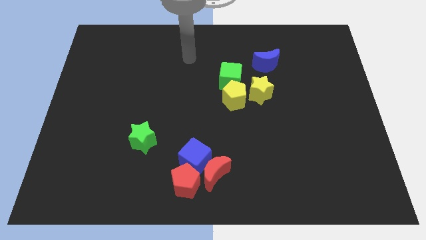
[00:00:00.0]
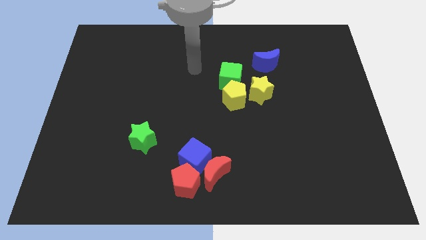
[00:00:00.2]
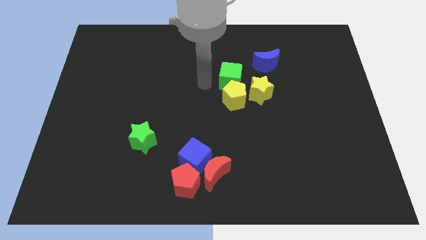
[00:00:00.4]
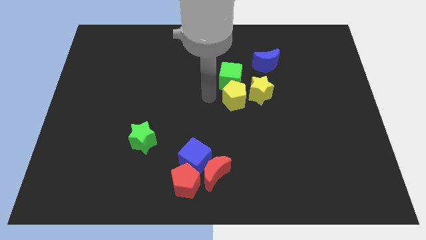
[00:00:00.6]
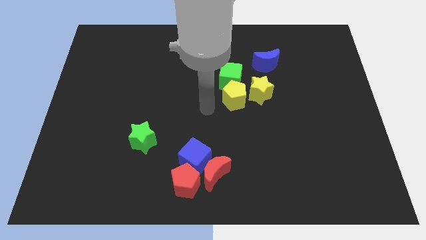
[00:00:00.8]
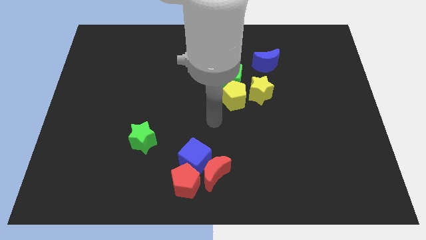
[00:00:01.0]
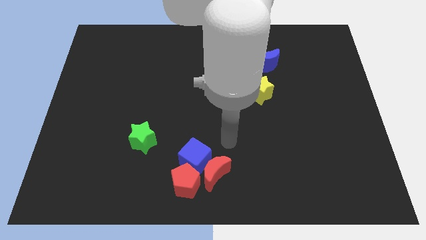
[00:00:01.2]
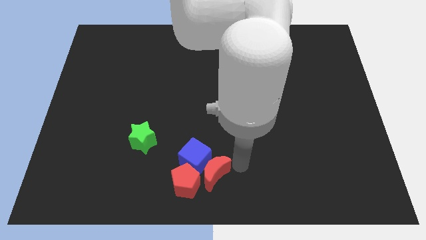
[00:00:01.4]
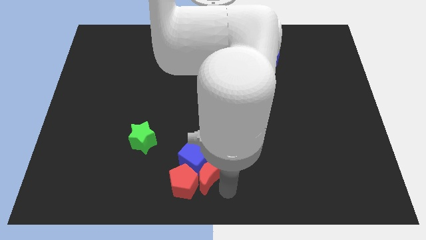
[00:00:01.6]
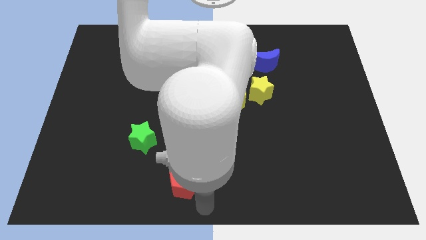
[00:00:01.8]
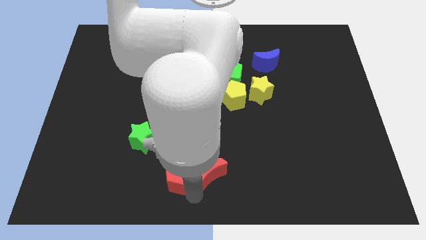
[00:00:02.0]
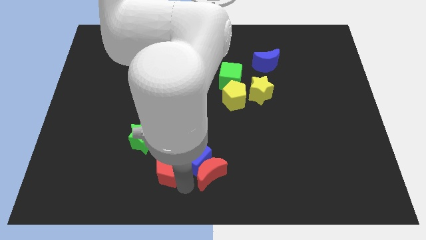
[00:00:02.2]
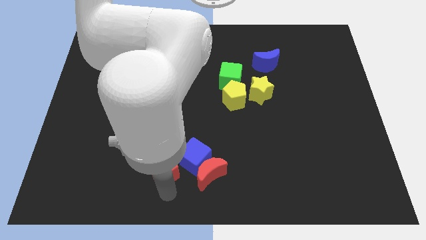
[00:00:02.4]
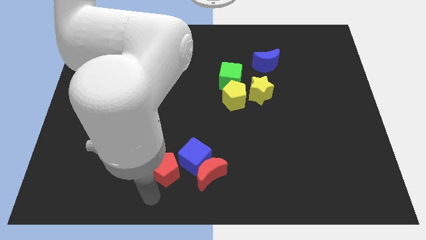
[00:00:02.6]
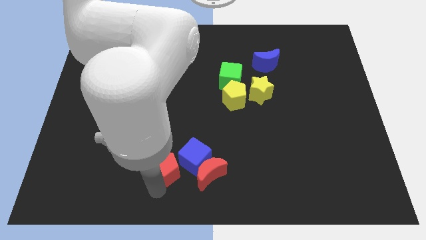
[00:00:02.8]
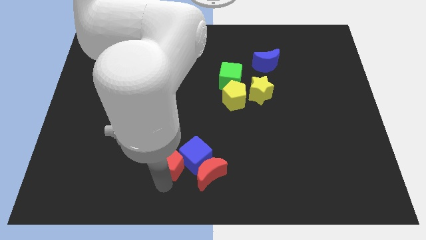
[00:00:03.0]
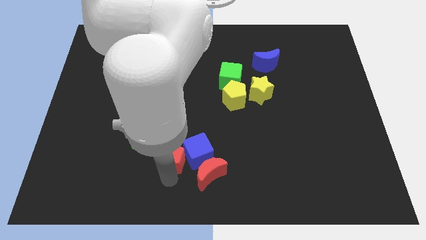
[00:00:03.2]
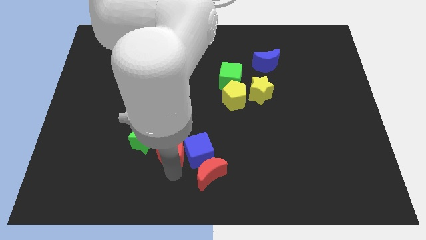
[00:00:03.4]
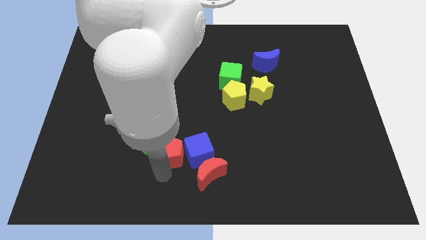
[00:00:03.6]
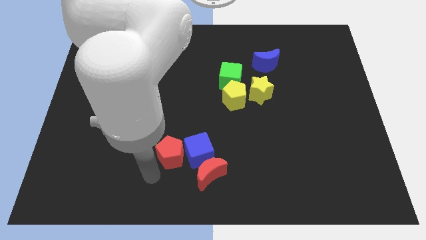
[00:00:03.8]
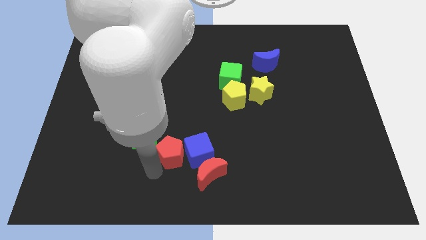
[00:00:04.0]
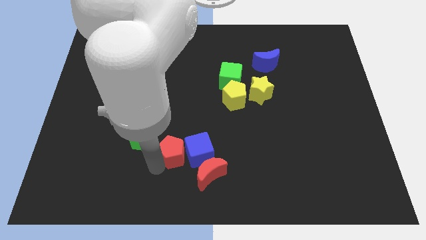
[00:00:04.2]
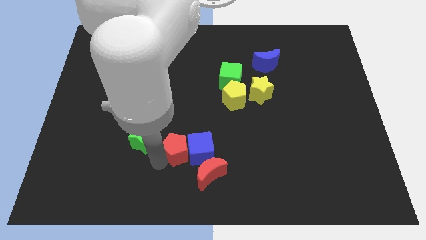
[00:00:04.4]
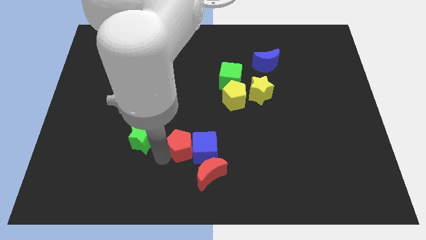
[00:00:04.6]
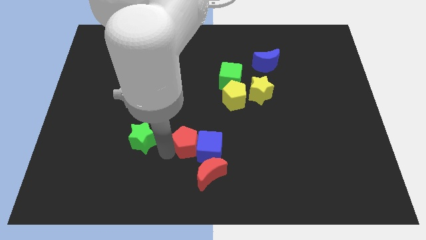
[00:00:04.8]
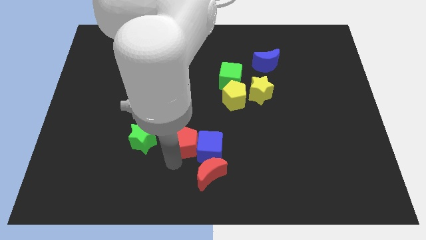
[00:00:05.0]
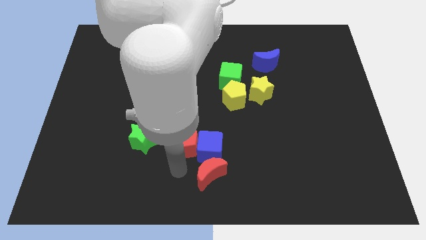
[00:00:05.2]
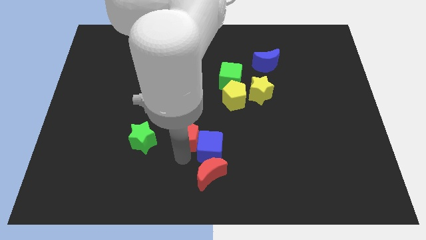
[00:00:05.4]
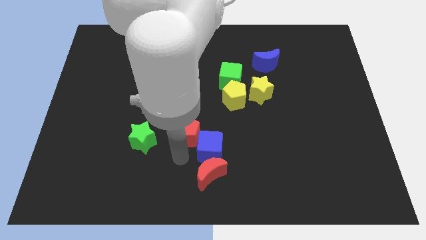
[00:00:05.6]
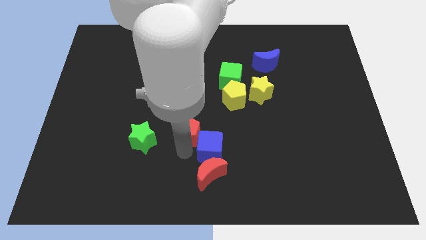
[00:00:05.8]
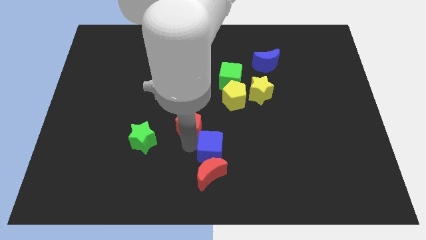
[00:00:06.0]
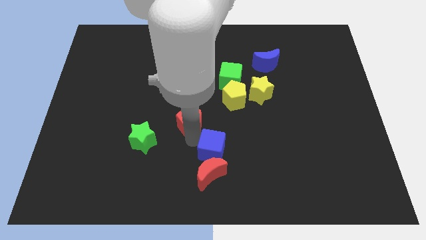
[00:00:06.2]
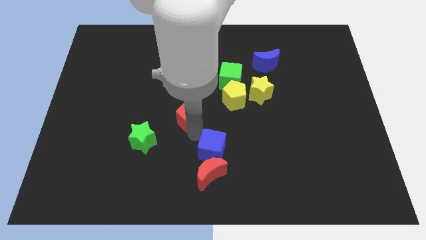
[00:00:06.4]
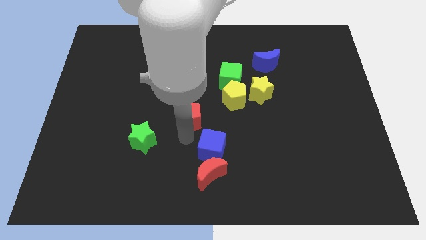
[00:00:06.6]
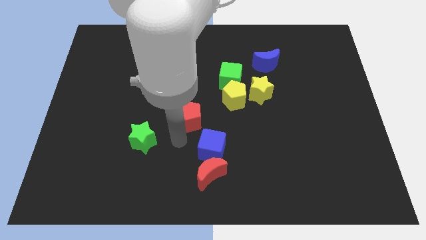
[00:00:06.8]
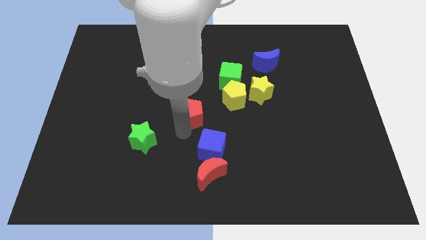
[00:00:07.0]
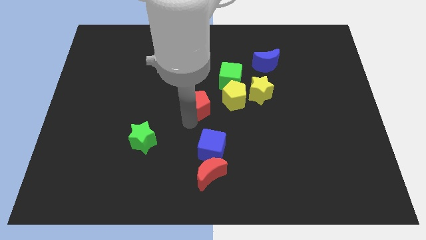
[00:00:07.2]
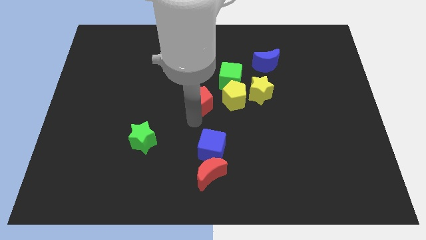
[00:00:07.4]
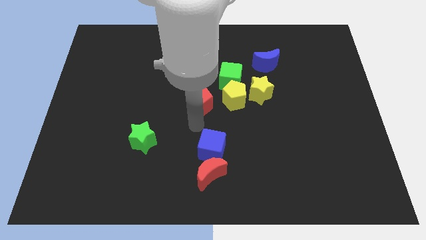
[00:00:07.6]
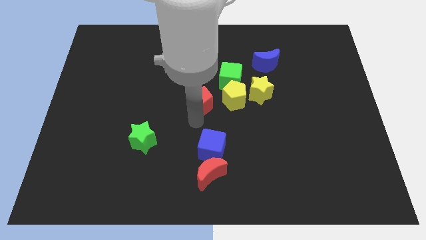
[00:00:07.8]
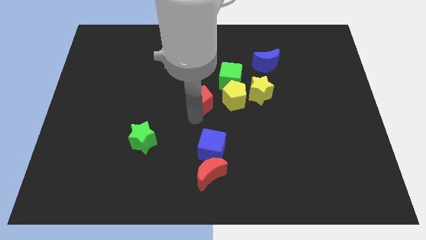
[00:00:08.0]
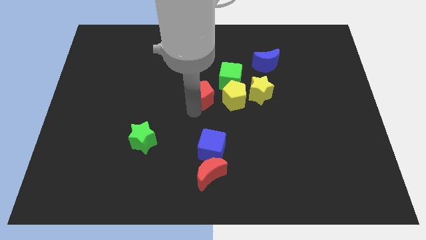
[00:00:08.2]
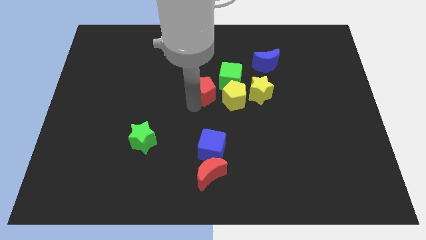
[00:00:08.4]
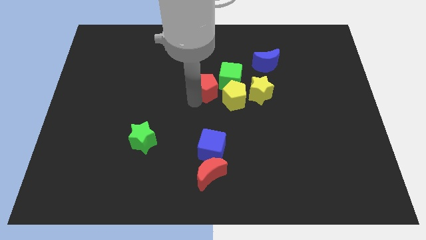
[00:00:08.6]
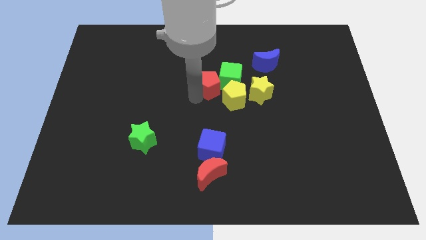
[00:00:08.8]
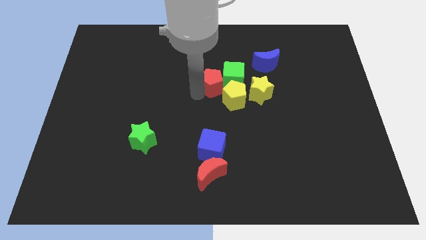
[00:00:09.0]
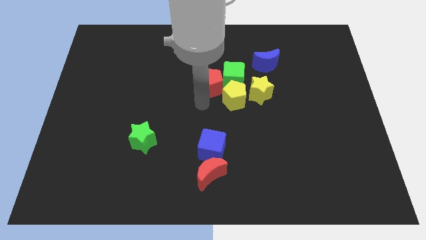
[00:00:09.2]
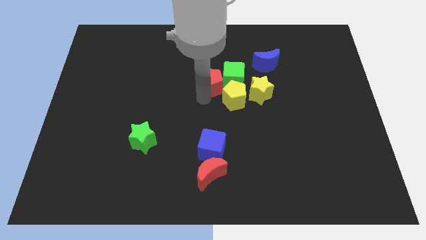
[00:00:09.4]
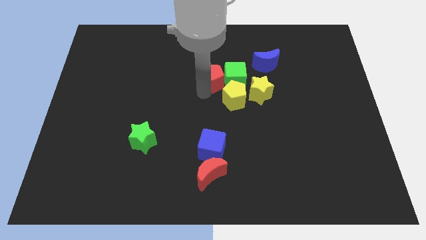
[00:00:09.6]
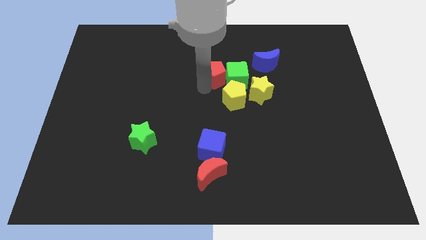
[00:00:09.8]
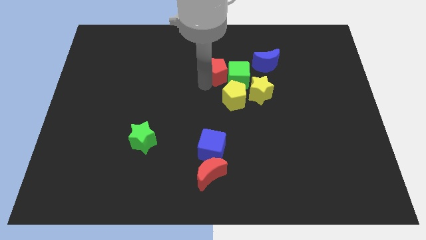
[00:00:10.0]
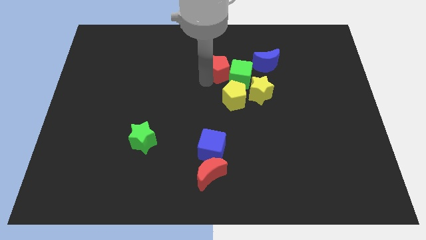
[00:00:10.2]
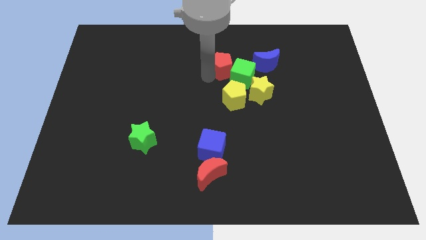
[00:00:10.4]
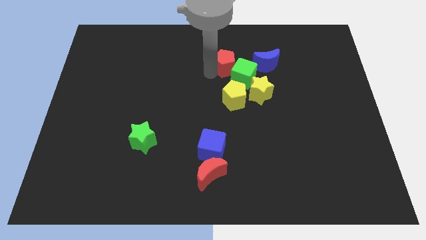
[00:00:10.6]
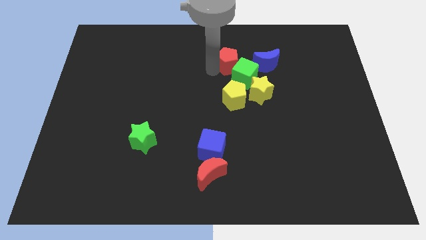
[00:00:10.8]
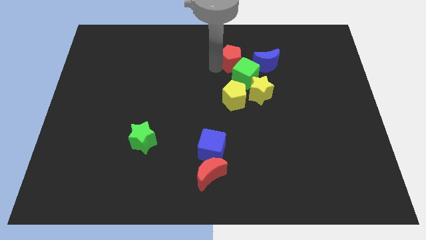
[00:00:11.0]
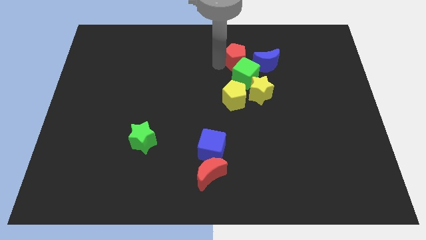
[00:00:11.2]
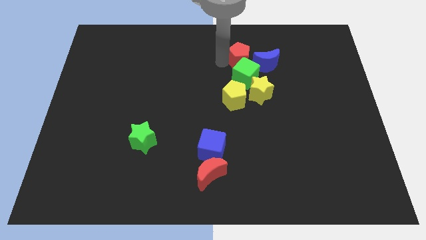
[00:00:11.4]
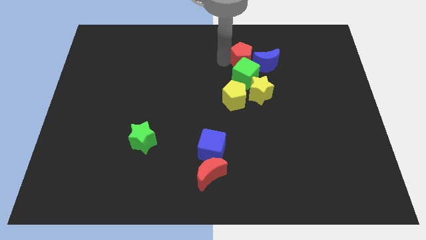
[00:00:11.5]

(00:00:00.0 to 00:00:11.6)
push the red pentagon to the top right of the green cube

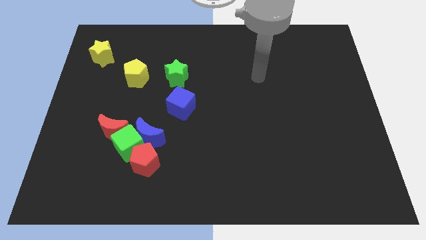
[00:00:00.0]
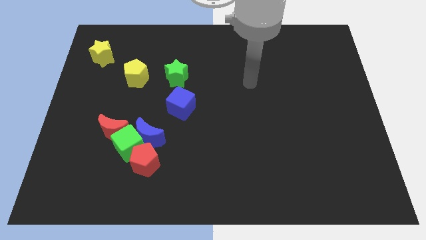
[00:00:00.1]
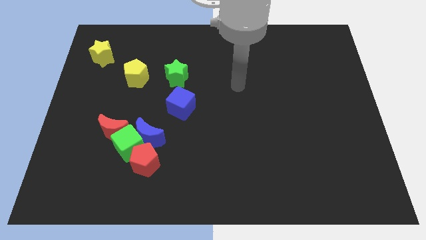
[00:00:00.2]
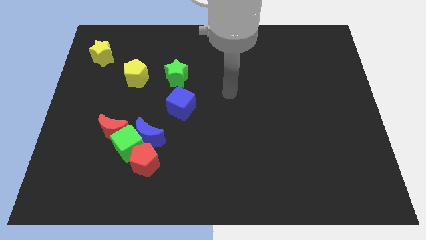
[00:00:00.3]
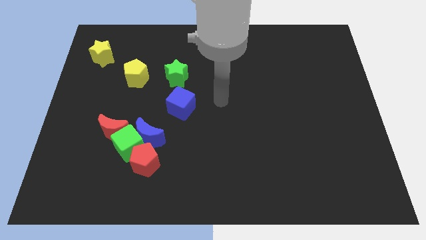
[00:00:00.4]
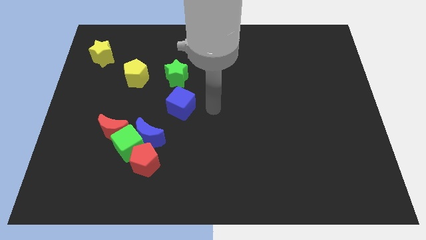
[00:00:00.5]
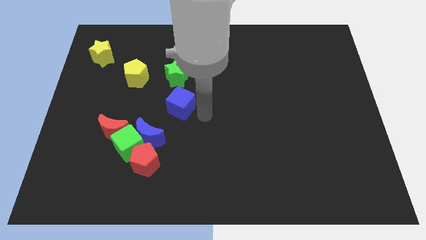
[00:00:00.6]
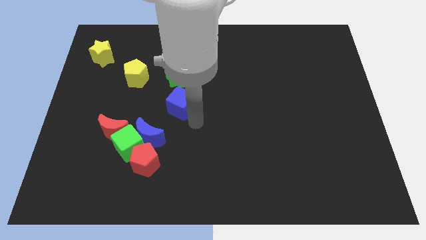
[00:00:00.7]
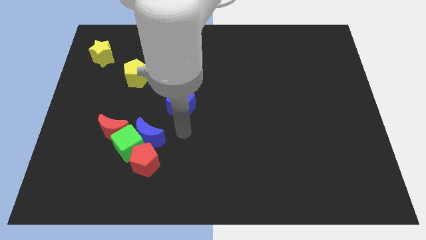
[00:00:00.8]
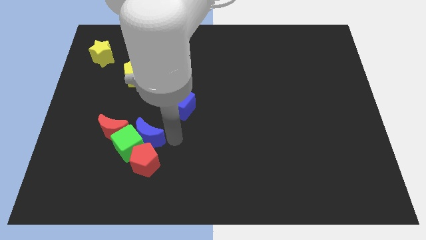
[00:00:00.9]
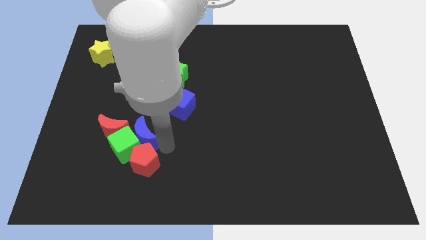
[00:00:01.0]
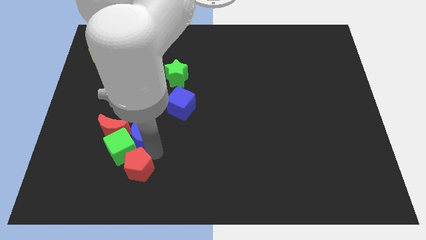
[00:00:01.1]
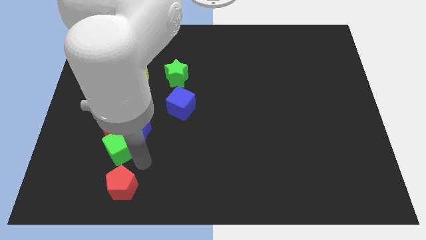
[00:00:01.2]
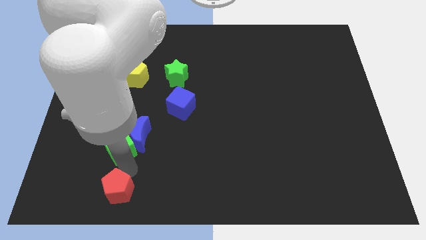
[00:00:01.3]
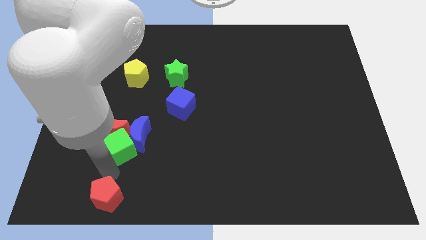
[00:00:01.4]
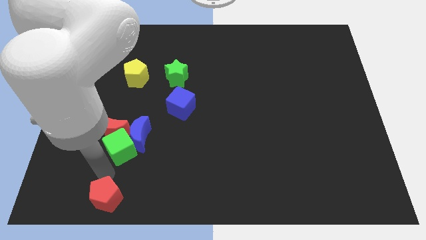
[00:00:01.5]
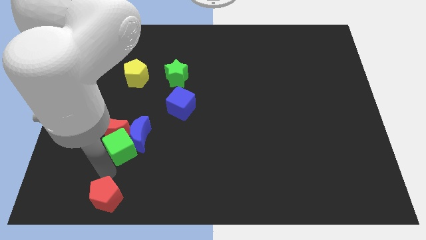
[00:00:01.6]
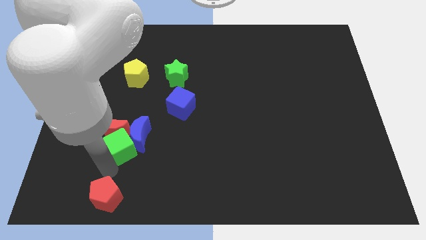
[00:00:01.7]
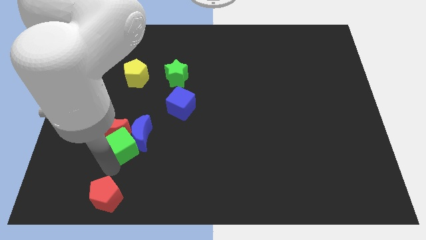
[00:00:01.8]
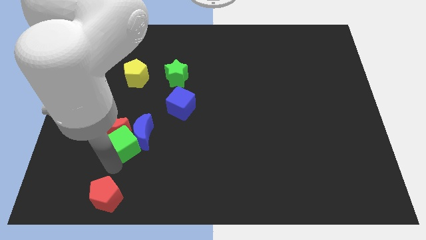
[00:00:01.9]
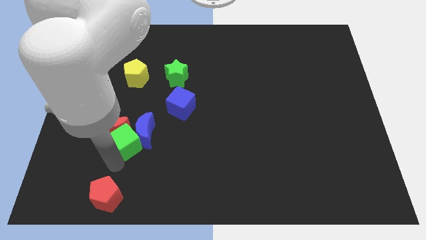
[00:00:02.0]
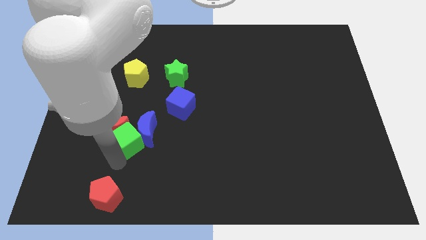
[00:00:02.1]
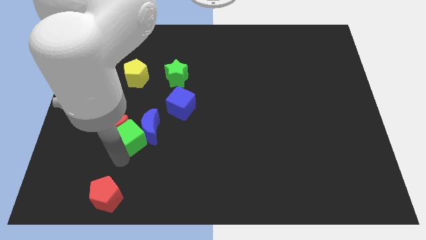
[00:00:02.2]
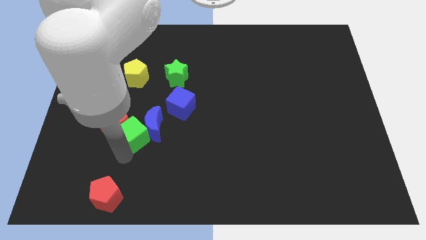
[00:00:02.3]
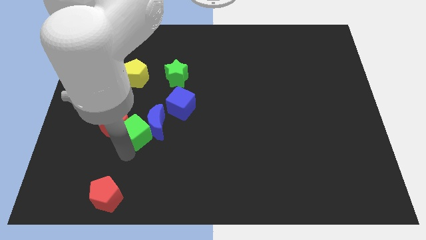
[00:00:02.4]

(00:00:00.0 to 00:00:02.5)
push the green cube to the top right side of the red moon
